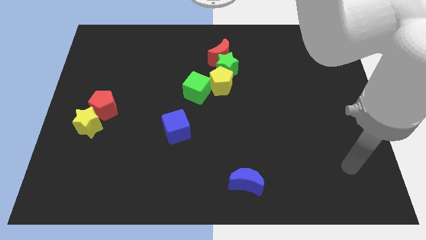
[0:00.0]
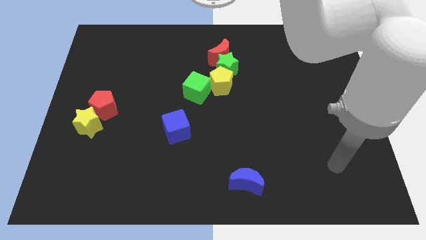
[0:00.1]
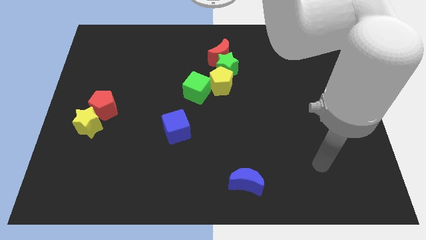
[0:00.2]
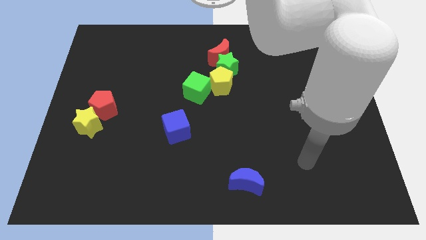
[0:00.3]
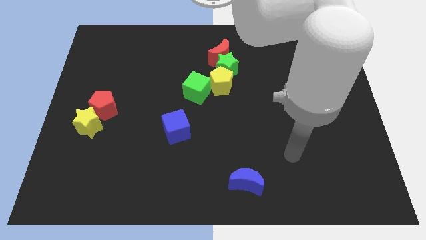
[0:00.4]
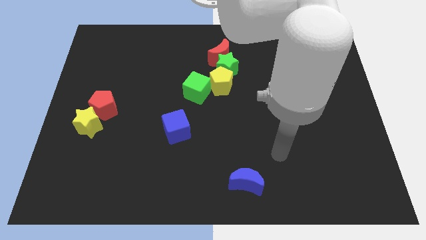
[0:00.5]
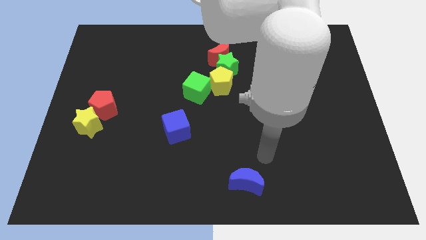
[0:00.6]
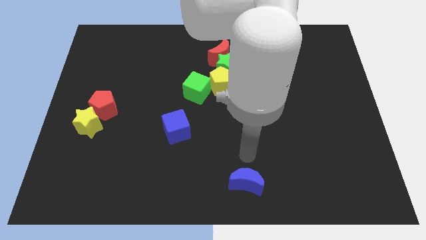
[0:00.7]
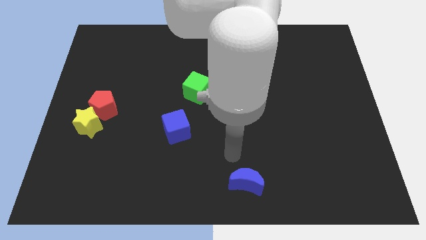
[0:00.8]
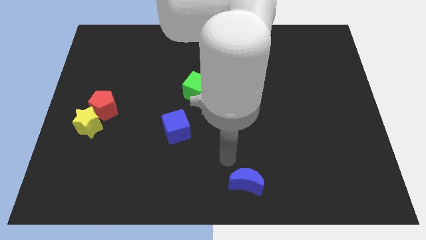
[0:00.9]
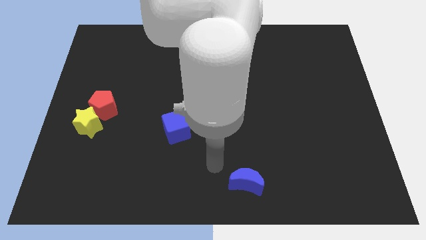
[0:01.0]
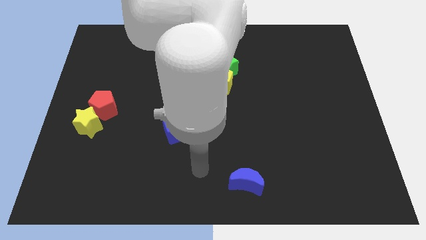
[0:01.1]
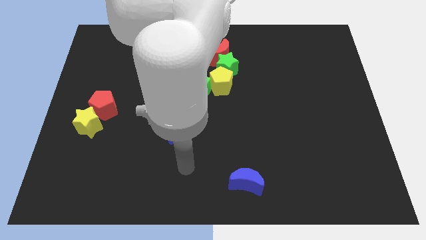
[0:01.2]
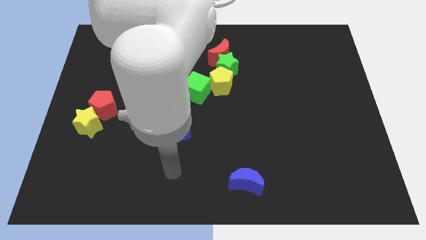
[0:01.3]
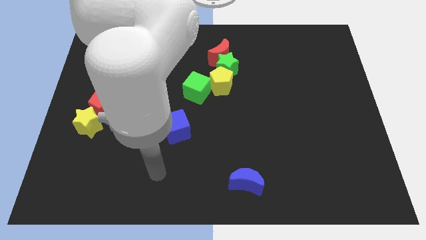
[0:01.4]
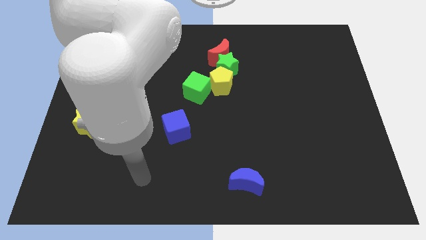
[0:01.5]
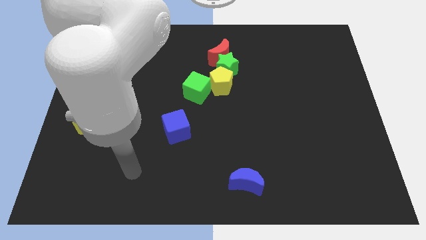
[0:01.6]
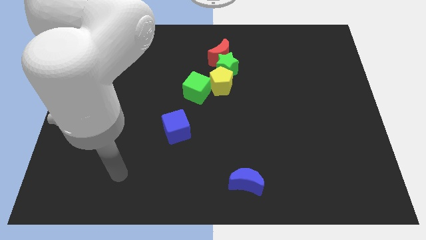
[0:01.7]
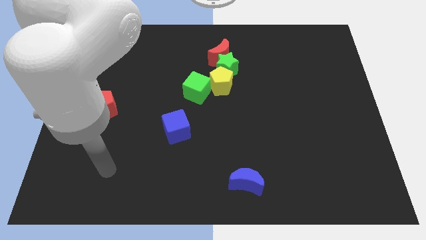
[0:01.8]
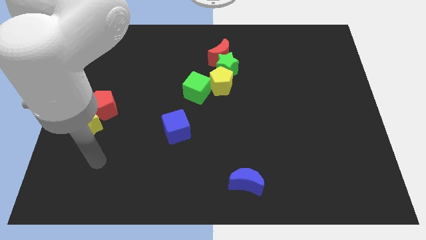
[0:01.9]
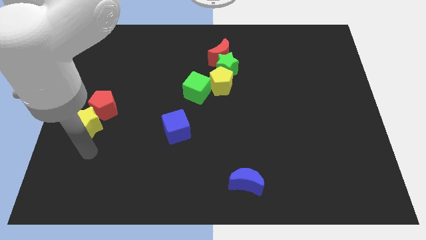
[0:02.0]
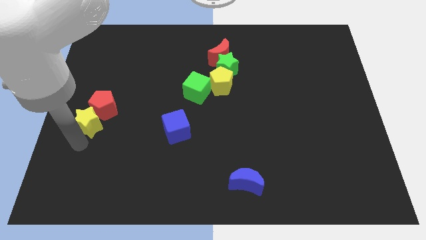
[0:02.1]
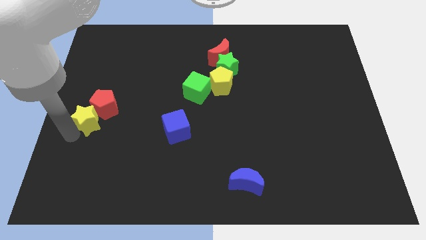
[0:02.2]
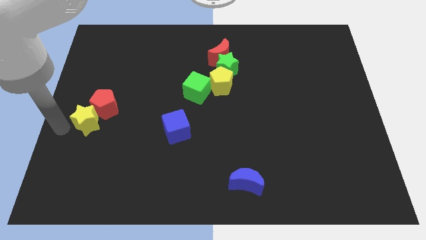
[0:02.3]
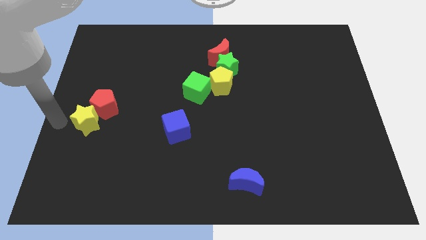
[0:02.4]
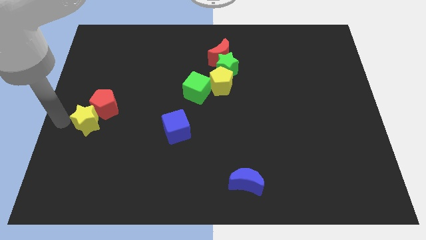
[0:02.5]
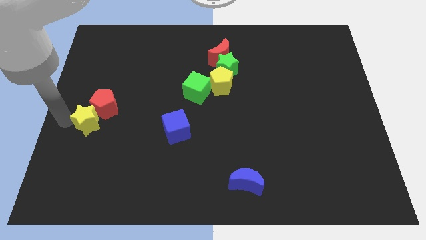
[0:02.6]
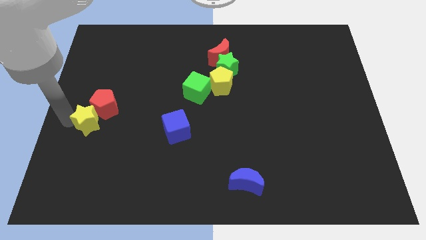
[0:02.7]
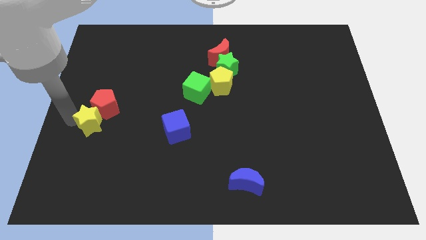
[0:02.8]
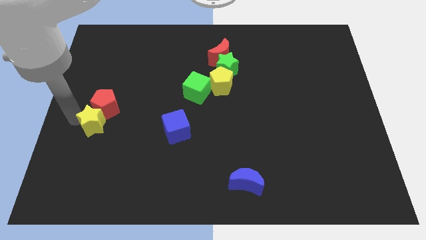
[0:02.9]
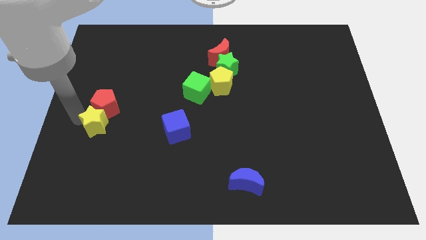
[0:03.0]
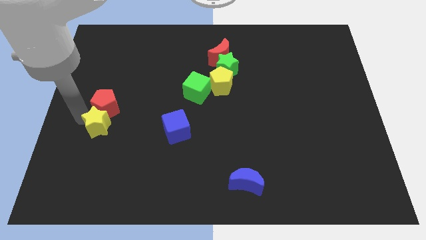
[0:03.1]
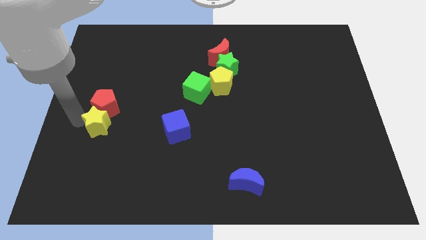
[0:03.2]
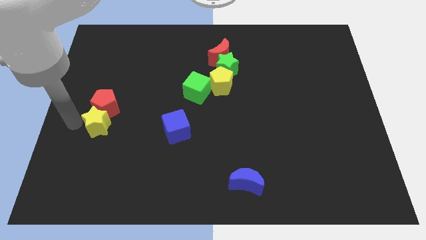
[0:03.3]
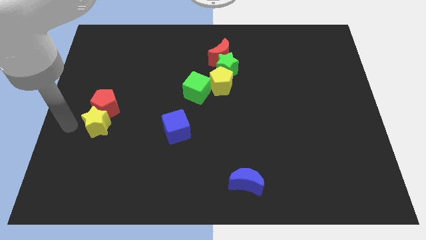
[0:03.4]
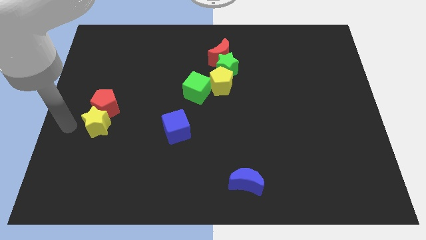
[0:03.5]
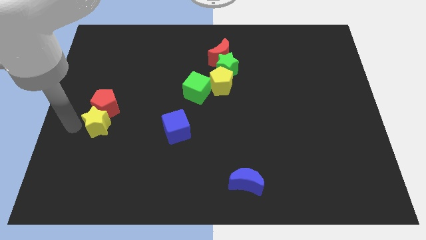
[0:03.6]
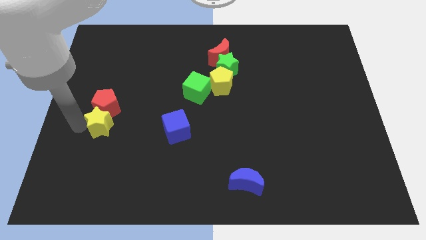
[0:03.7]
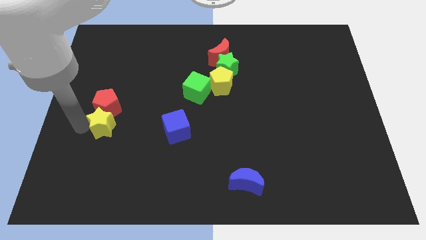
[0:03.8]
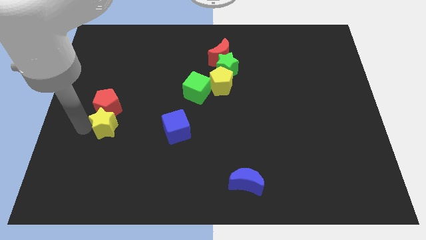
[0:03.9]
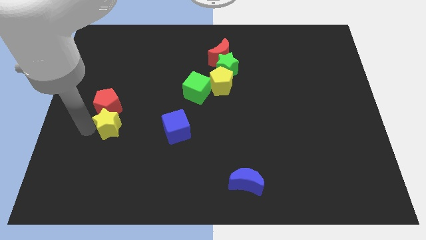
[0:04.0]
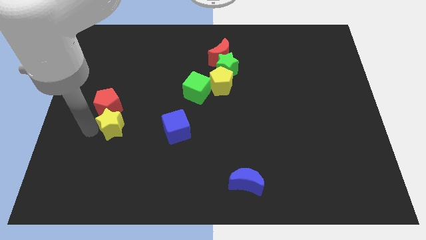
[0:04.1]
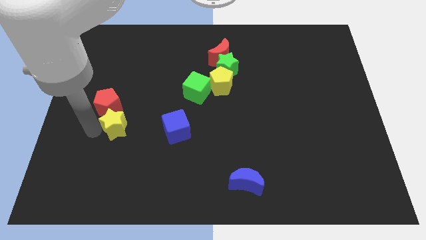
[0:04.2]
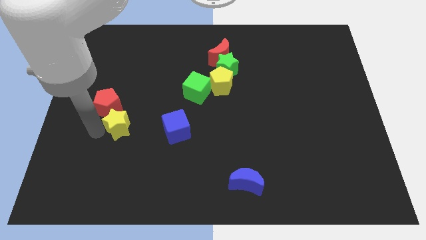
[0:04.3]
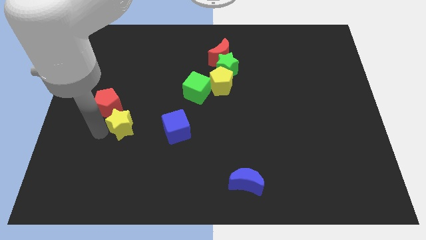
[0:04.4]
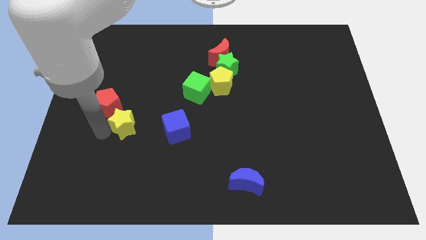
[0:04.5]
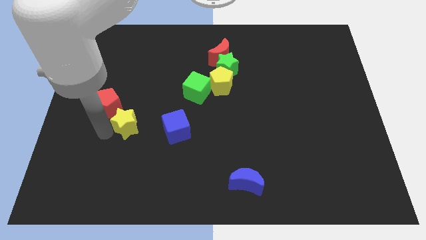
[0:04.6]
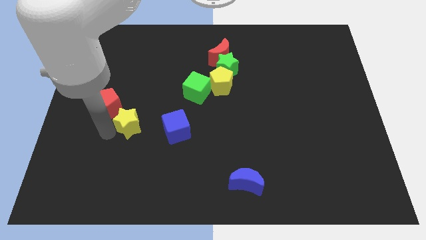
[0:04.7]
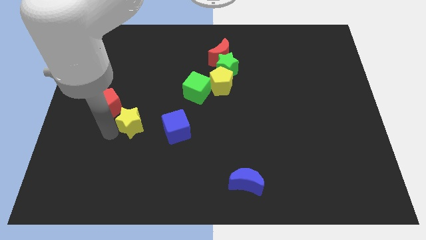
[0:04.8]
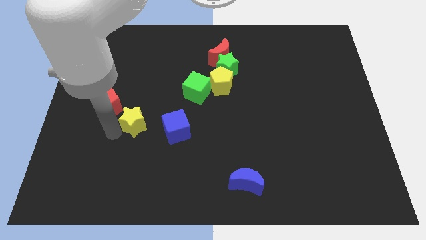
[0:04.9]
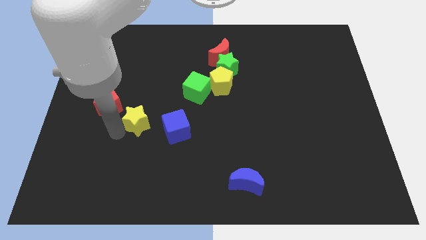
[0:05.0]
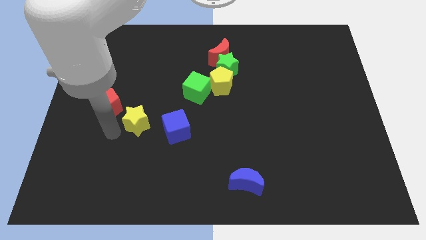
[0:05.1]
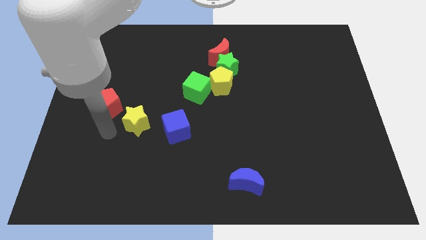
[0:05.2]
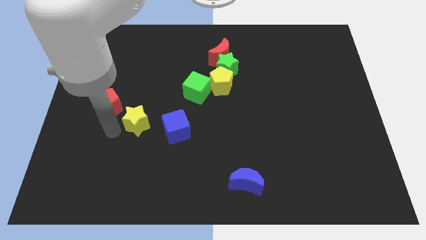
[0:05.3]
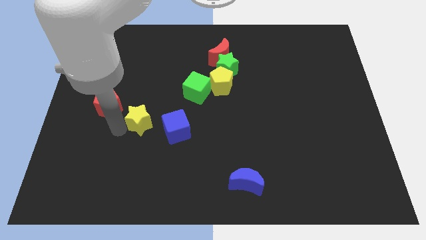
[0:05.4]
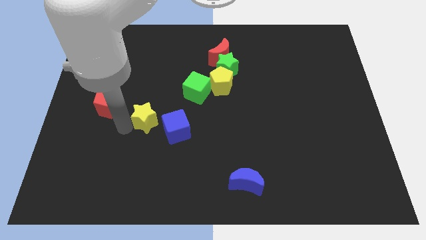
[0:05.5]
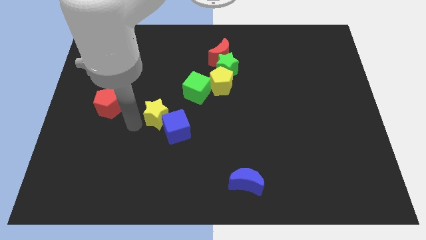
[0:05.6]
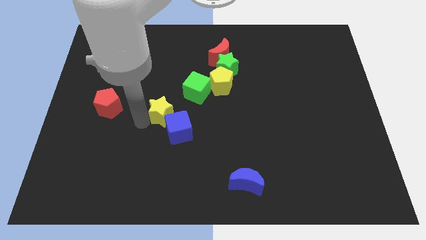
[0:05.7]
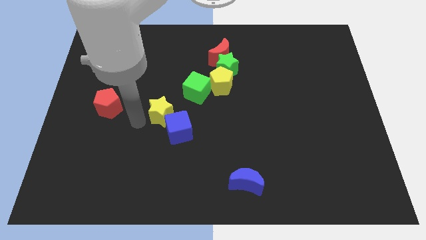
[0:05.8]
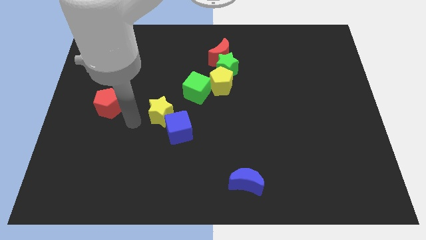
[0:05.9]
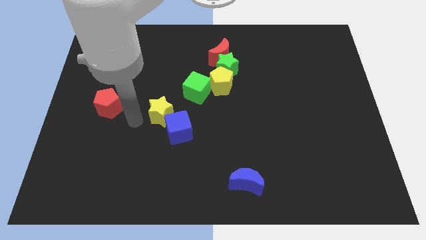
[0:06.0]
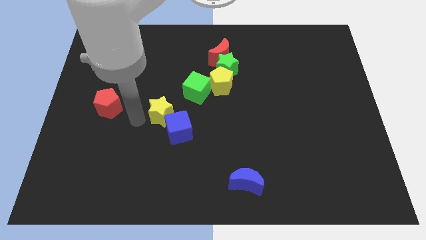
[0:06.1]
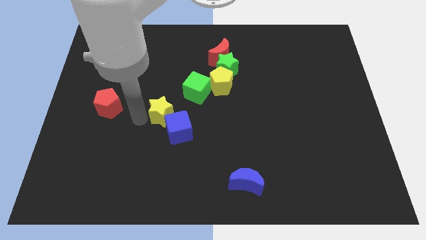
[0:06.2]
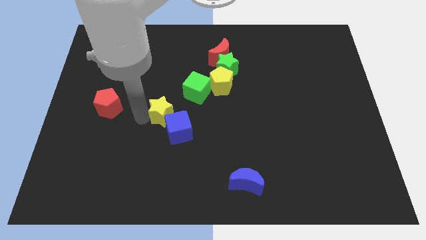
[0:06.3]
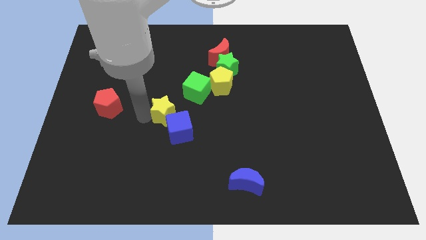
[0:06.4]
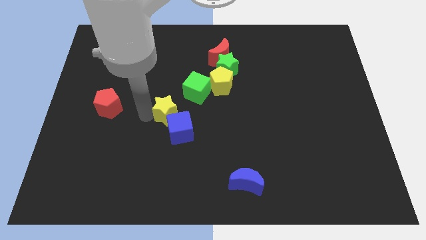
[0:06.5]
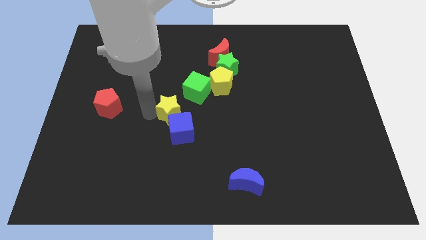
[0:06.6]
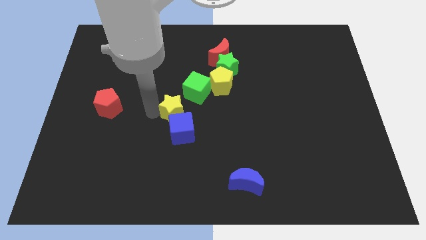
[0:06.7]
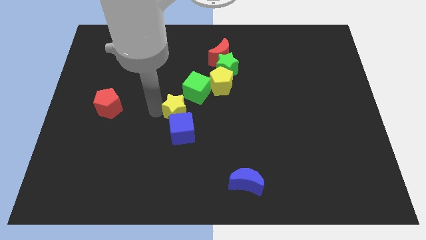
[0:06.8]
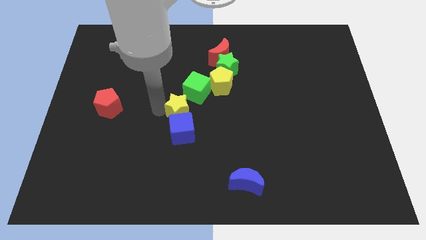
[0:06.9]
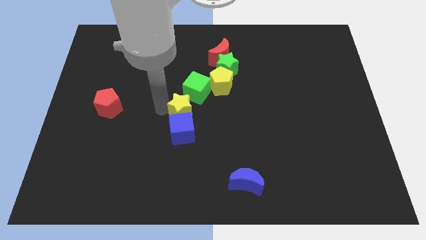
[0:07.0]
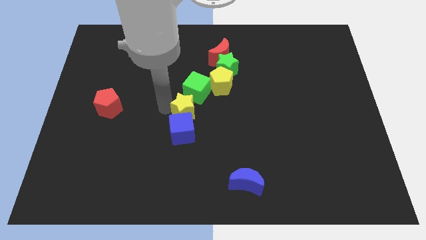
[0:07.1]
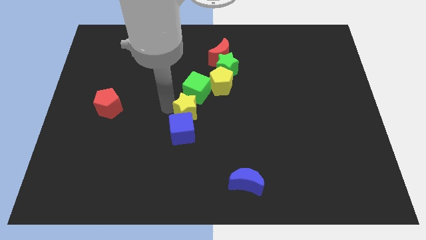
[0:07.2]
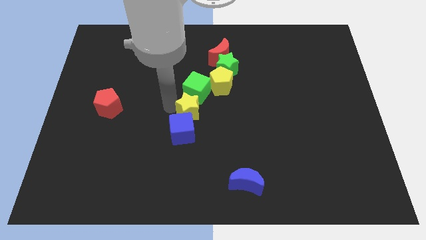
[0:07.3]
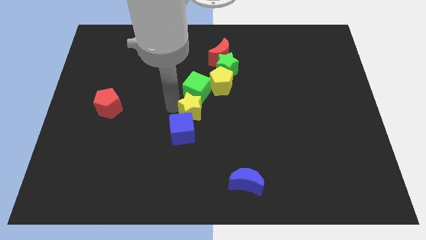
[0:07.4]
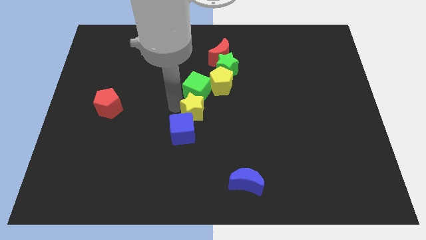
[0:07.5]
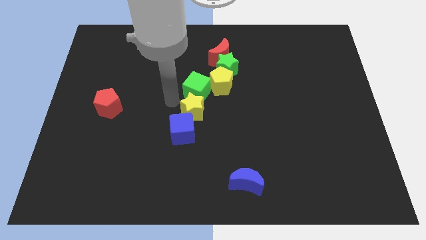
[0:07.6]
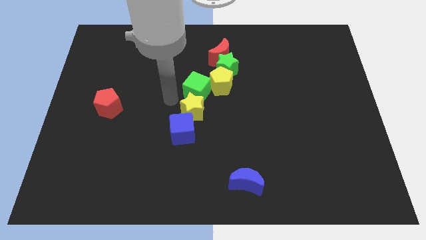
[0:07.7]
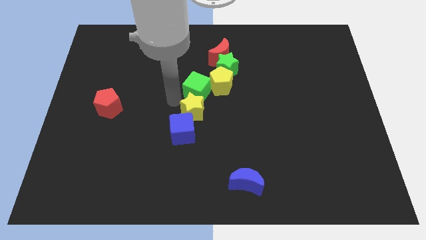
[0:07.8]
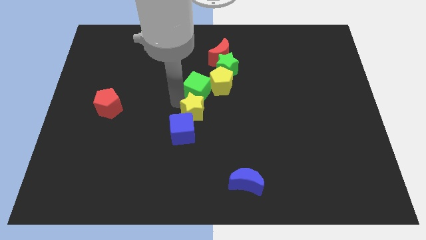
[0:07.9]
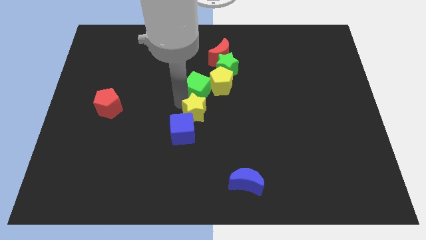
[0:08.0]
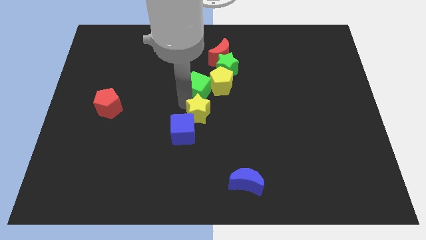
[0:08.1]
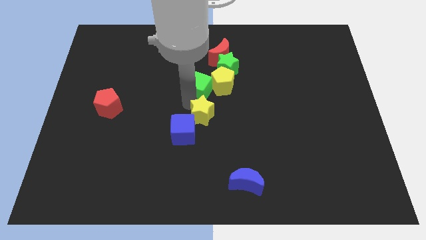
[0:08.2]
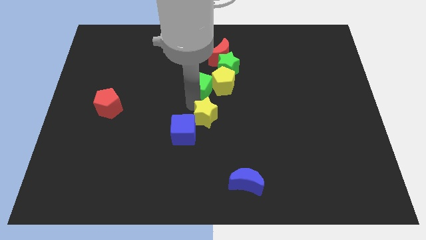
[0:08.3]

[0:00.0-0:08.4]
move the yellow star to the right side of the blue cube
